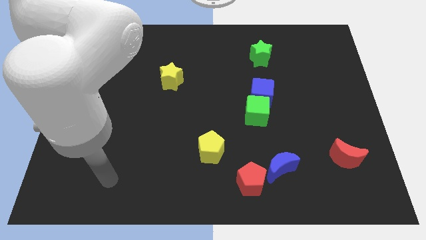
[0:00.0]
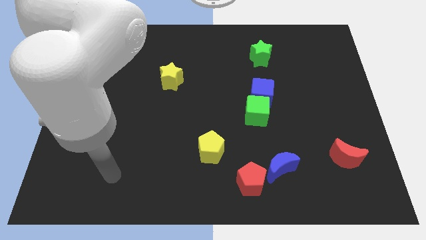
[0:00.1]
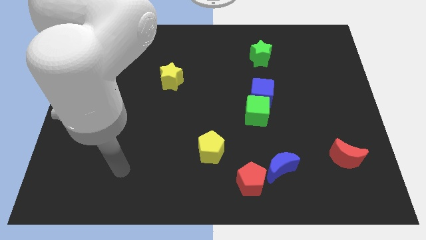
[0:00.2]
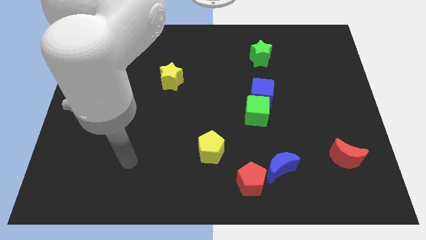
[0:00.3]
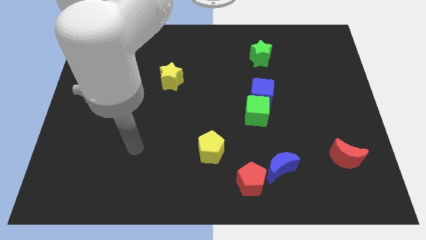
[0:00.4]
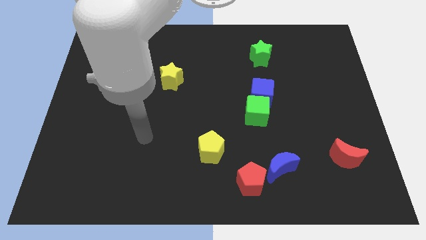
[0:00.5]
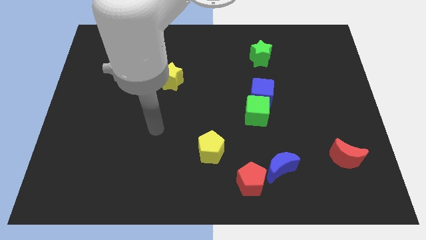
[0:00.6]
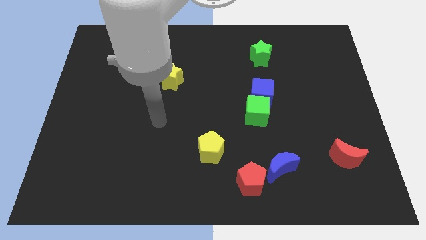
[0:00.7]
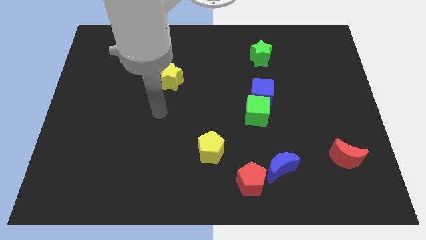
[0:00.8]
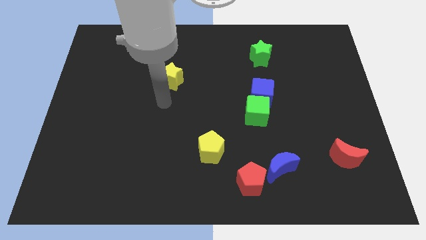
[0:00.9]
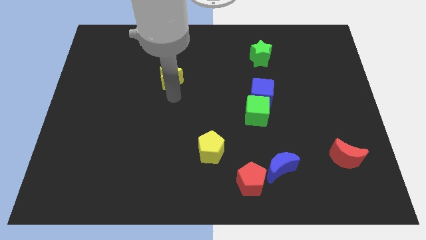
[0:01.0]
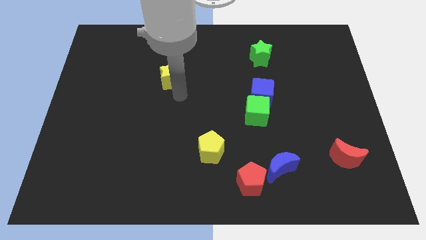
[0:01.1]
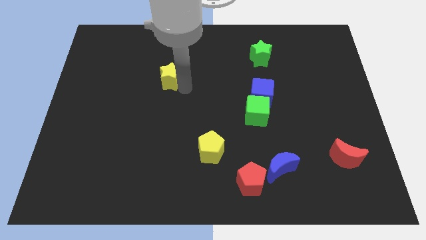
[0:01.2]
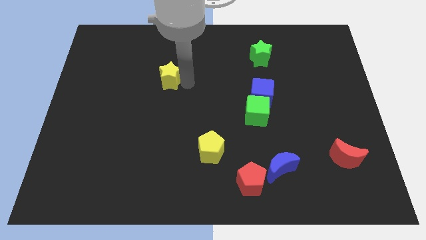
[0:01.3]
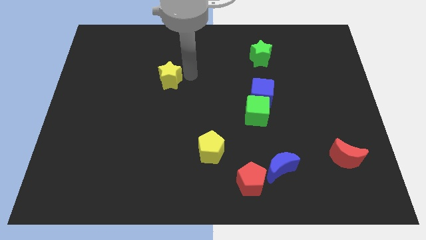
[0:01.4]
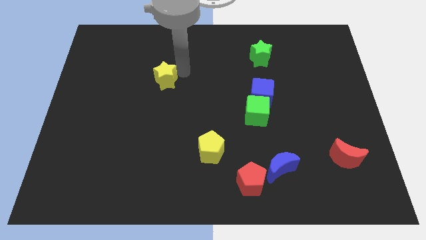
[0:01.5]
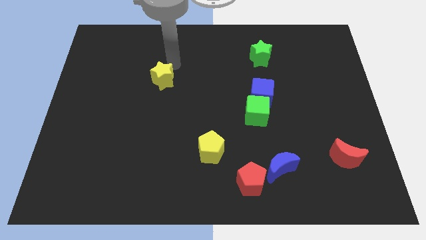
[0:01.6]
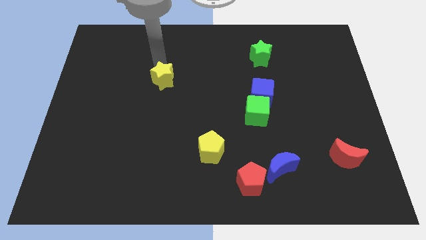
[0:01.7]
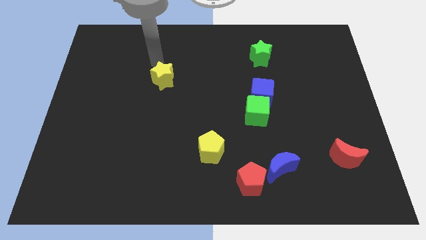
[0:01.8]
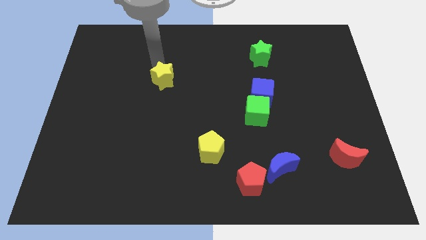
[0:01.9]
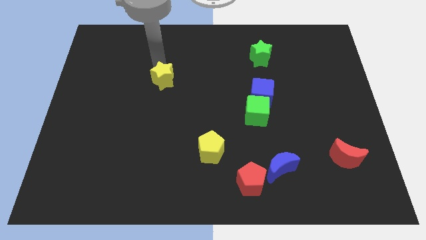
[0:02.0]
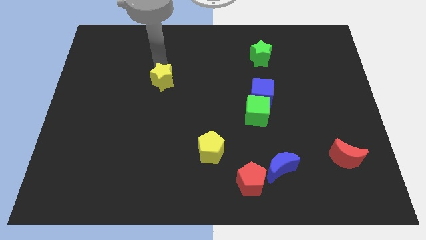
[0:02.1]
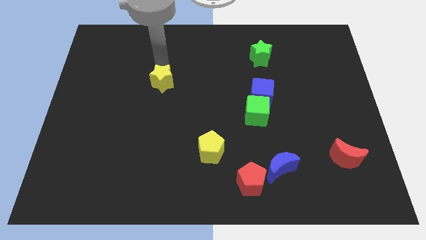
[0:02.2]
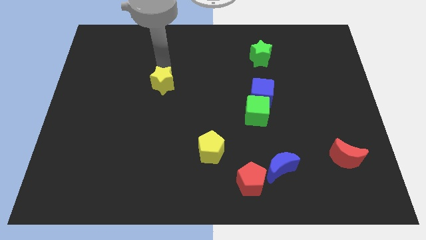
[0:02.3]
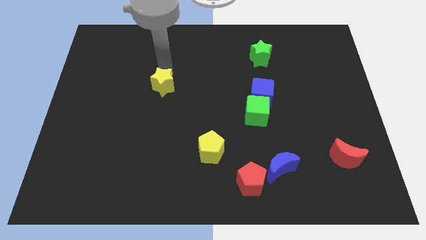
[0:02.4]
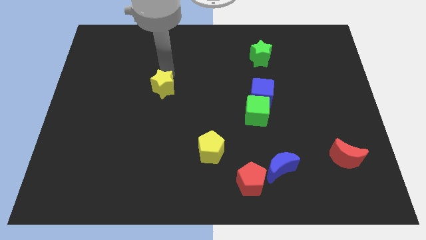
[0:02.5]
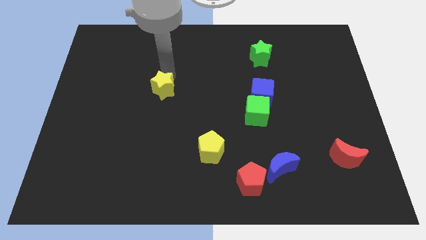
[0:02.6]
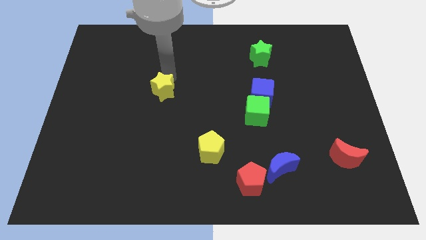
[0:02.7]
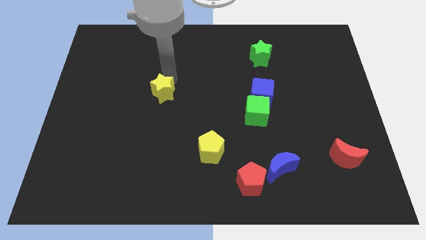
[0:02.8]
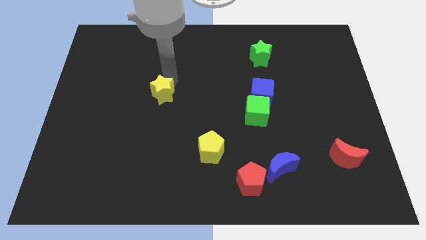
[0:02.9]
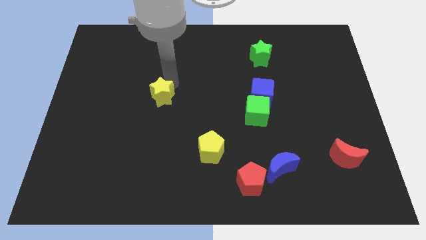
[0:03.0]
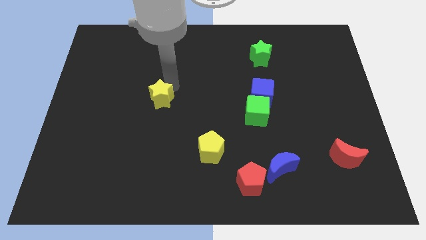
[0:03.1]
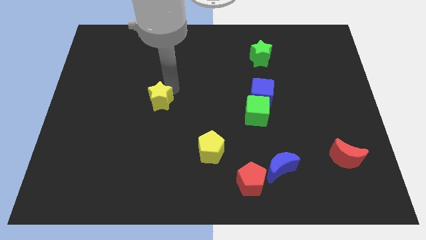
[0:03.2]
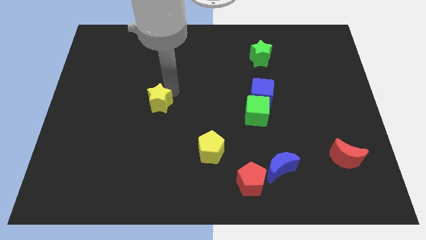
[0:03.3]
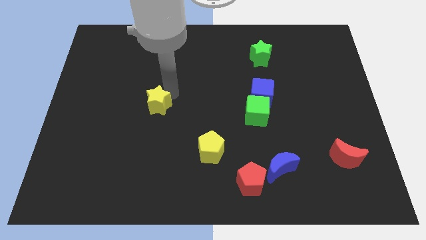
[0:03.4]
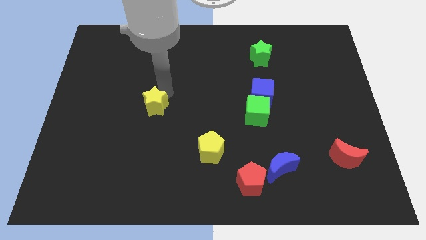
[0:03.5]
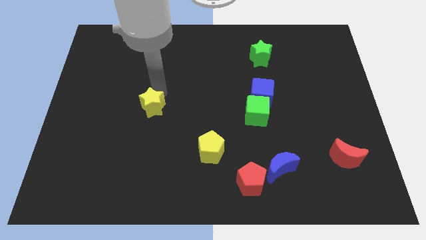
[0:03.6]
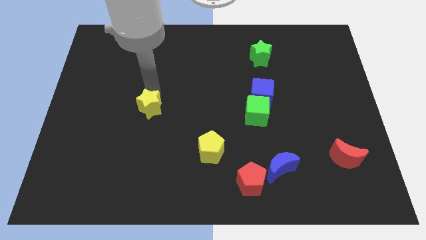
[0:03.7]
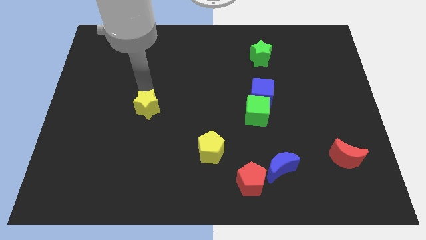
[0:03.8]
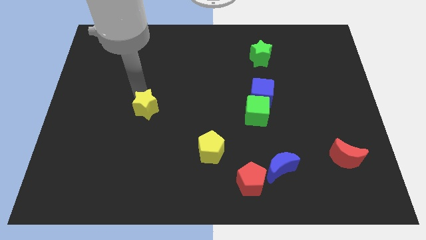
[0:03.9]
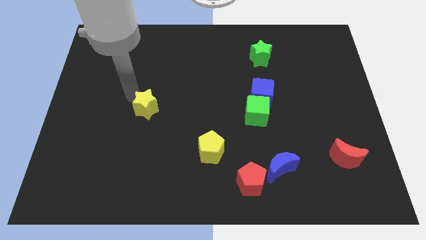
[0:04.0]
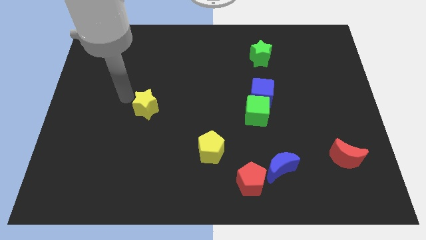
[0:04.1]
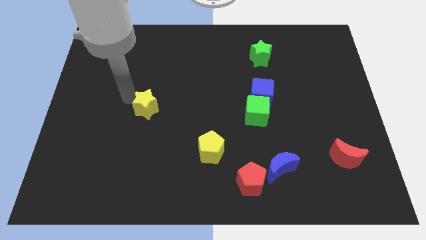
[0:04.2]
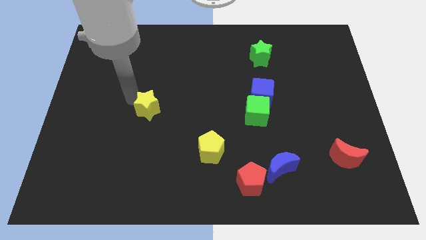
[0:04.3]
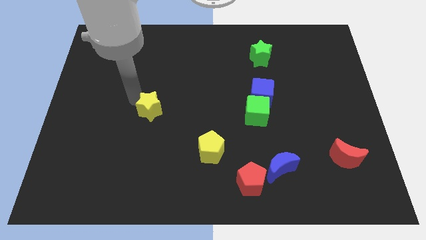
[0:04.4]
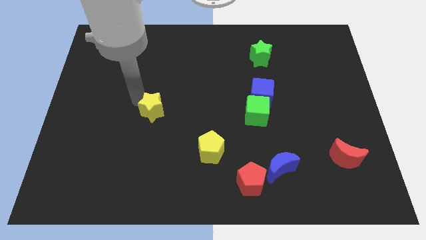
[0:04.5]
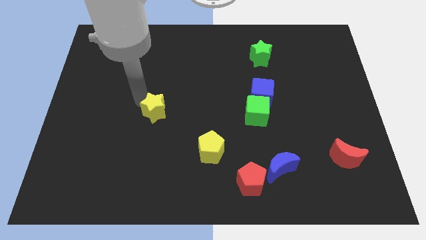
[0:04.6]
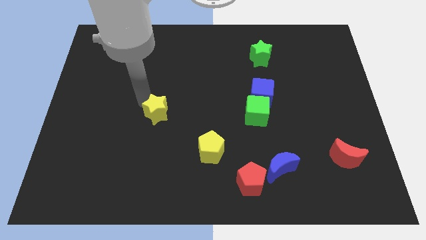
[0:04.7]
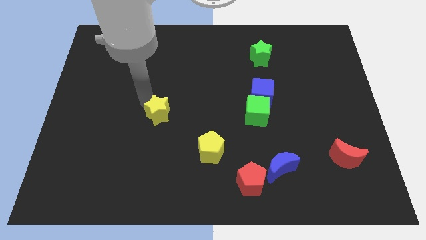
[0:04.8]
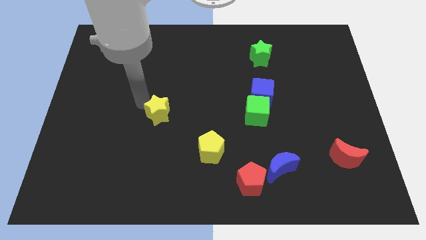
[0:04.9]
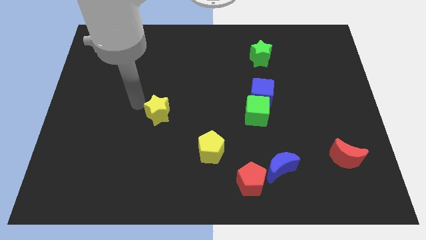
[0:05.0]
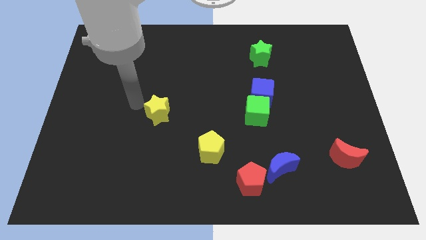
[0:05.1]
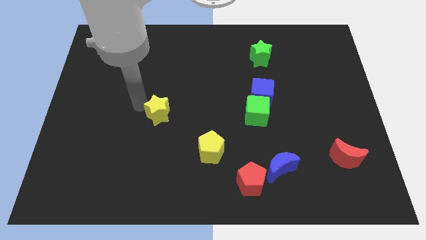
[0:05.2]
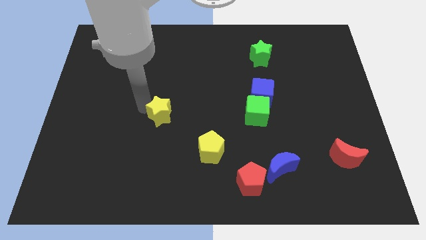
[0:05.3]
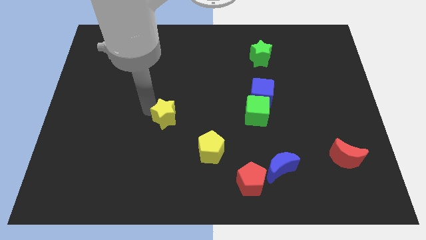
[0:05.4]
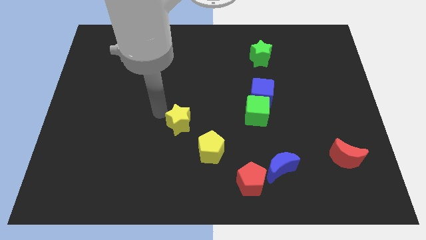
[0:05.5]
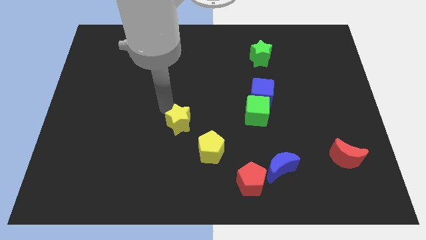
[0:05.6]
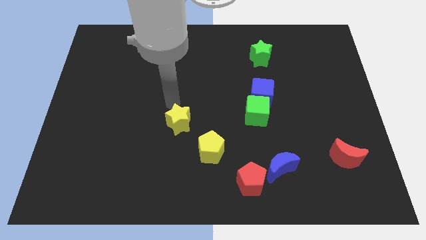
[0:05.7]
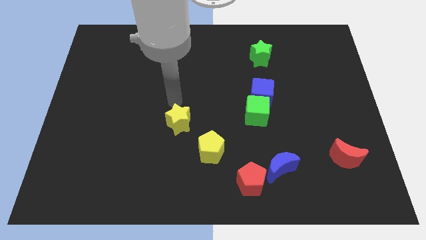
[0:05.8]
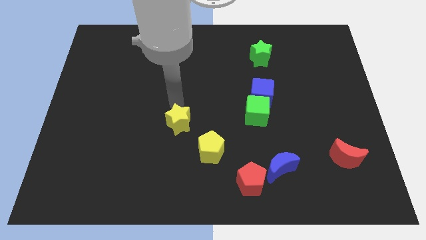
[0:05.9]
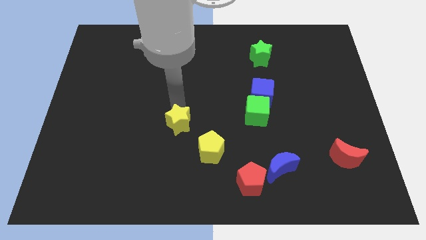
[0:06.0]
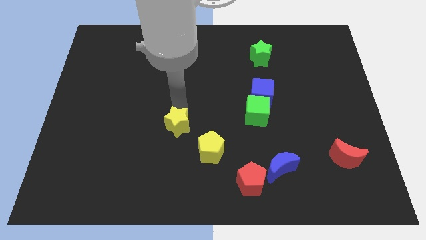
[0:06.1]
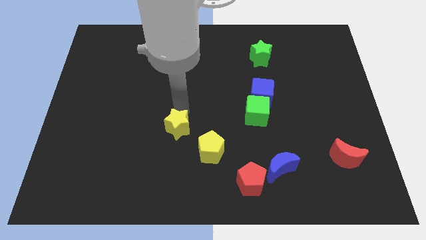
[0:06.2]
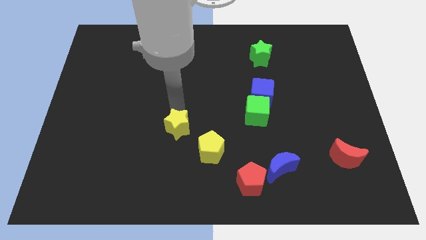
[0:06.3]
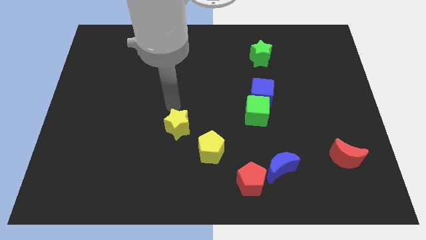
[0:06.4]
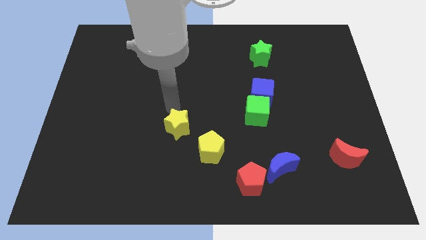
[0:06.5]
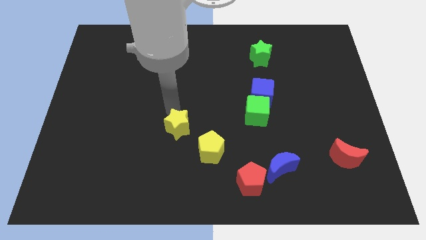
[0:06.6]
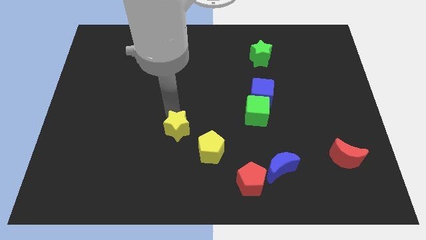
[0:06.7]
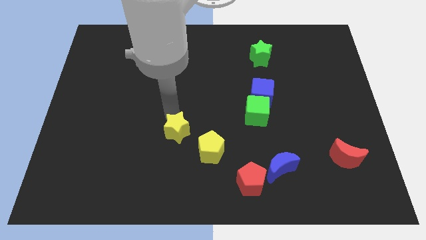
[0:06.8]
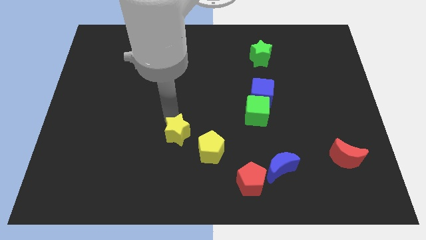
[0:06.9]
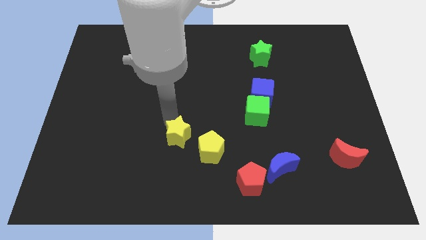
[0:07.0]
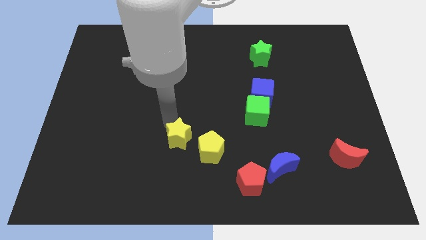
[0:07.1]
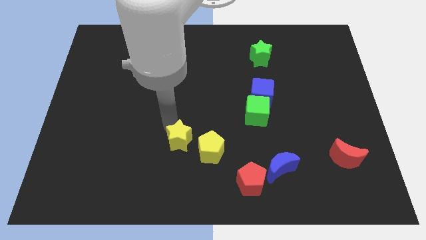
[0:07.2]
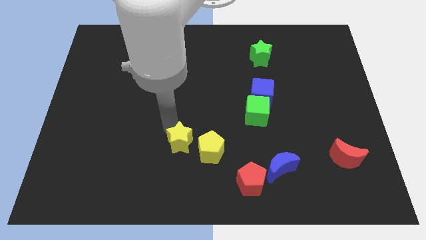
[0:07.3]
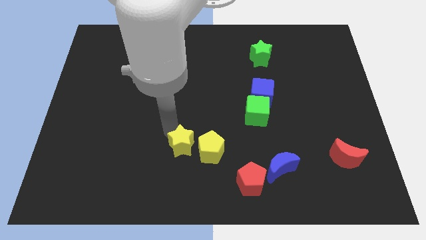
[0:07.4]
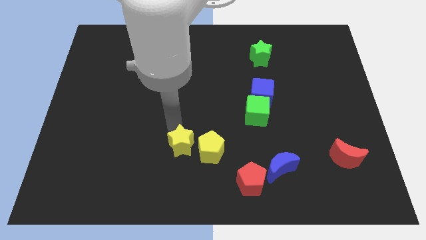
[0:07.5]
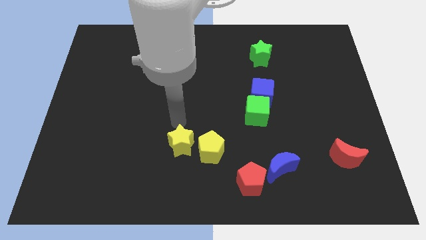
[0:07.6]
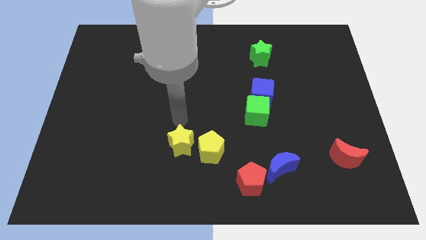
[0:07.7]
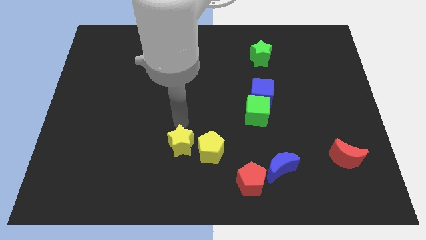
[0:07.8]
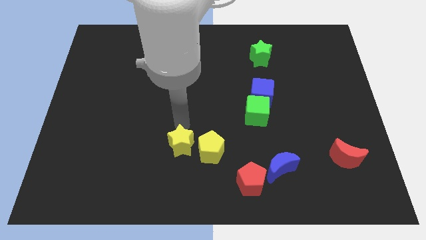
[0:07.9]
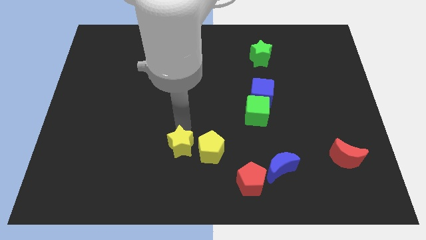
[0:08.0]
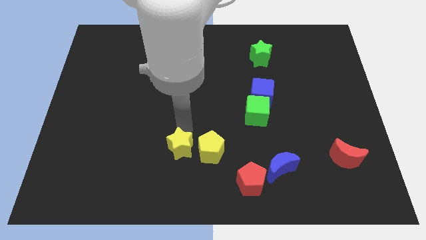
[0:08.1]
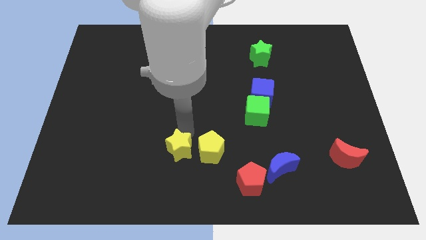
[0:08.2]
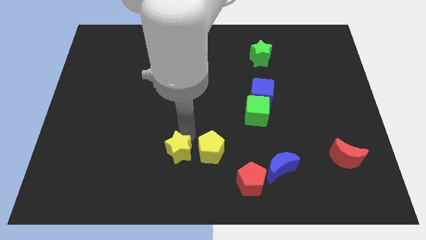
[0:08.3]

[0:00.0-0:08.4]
slide the yellow star to the bottom left of the yellow pentagon
